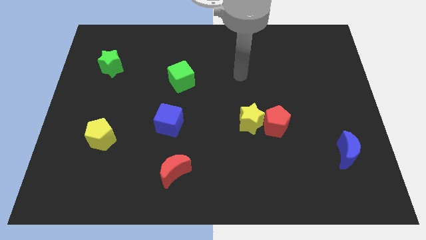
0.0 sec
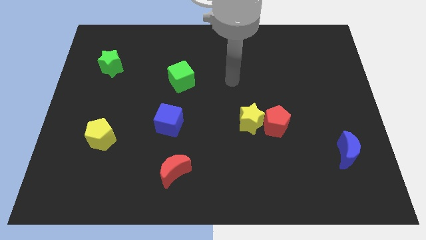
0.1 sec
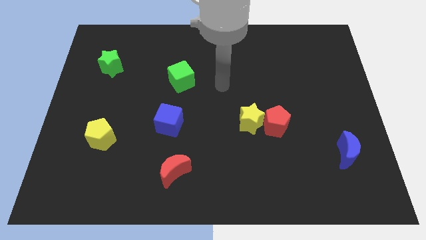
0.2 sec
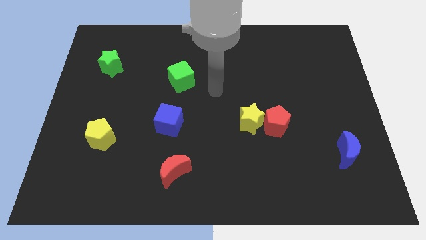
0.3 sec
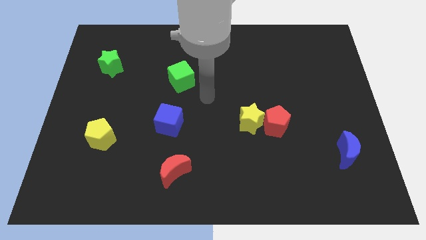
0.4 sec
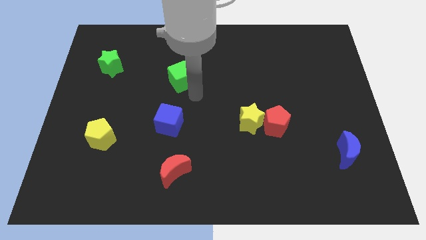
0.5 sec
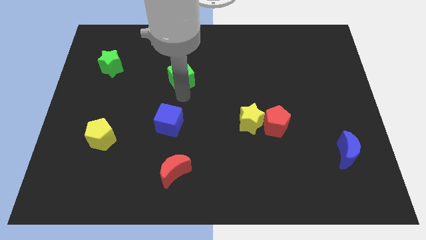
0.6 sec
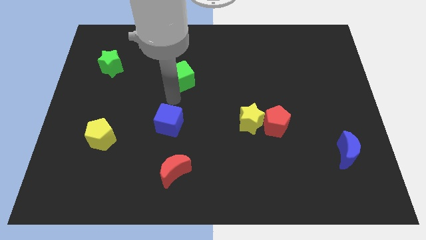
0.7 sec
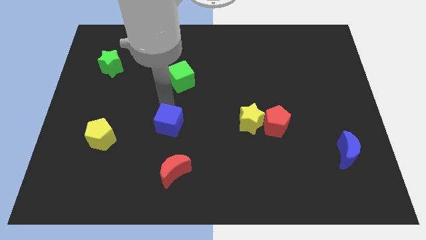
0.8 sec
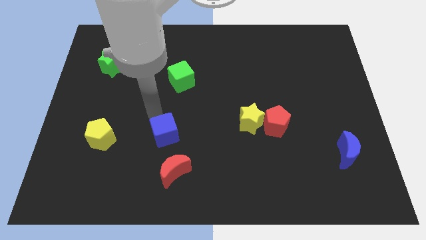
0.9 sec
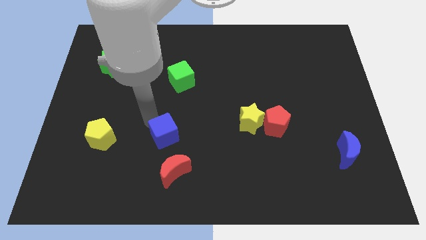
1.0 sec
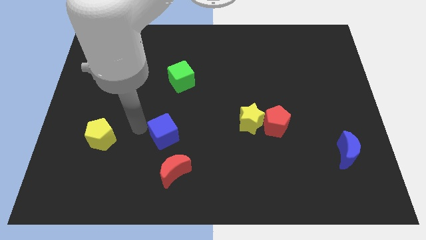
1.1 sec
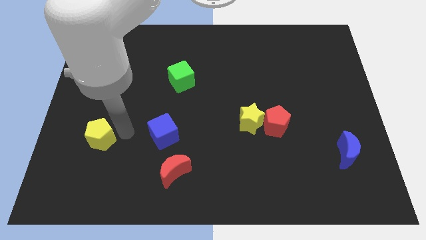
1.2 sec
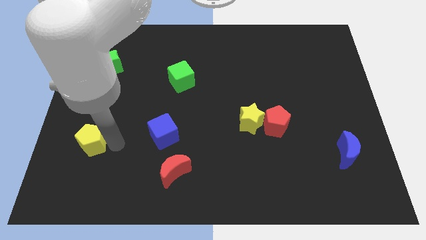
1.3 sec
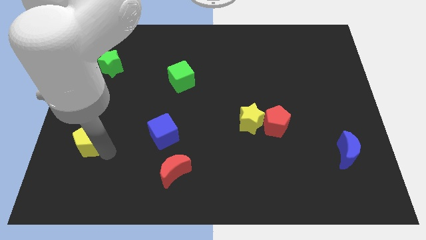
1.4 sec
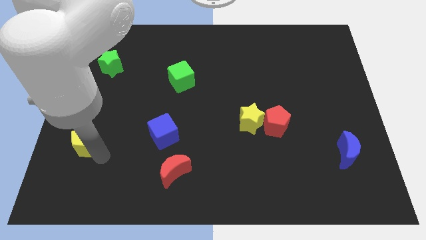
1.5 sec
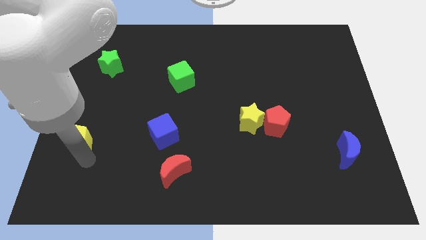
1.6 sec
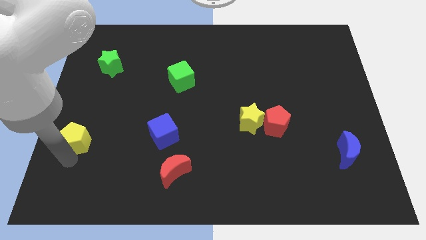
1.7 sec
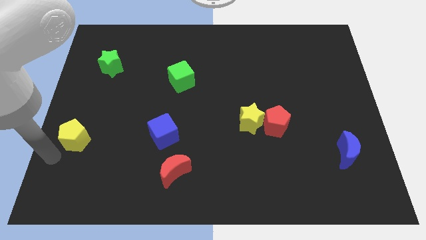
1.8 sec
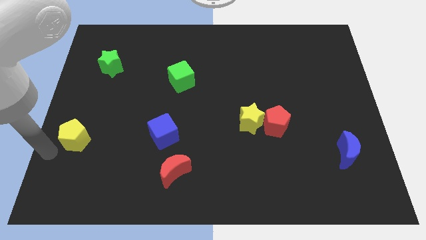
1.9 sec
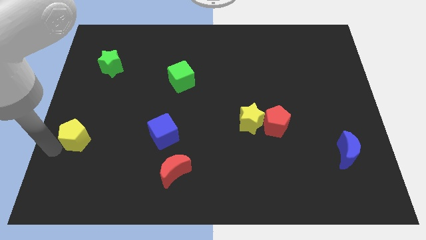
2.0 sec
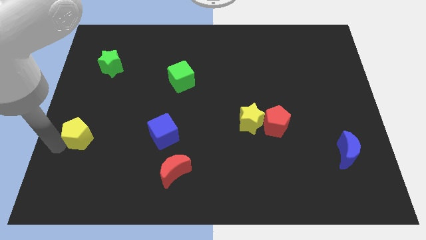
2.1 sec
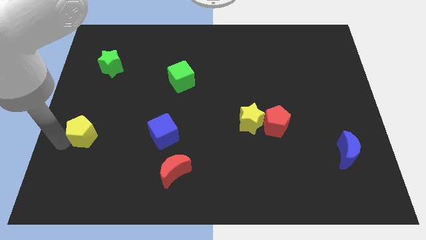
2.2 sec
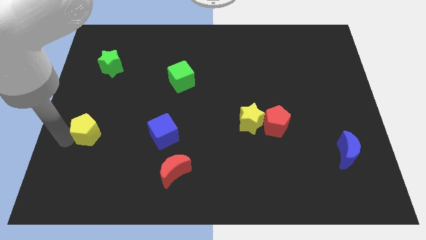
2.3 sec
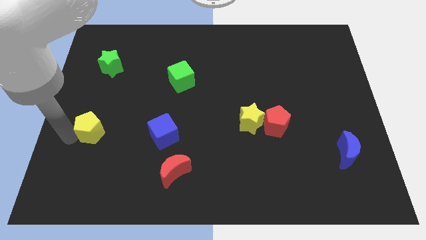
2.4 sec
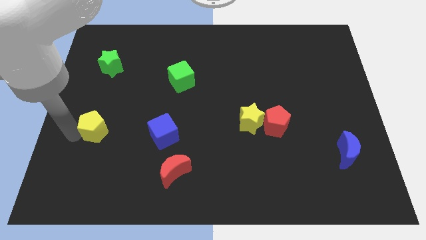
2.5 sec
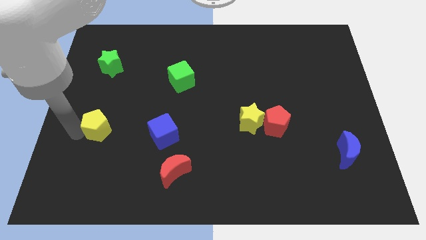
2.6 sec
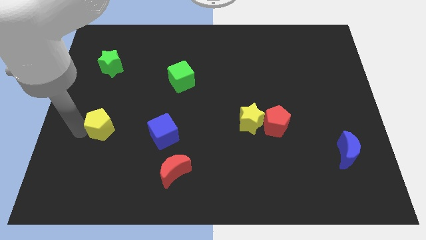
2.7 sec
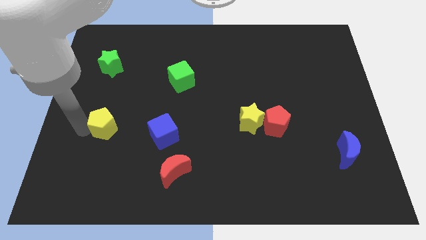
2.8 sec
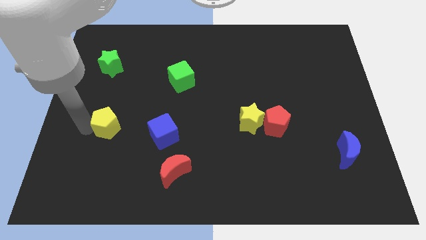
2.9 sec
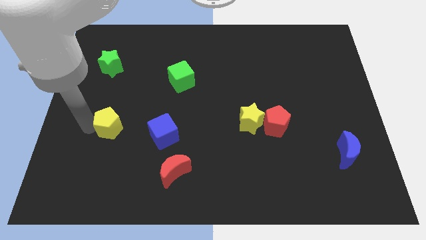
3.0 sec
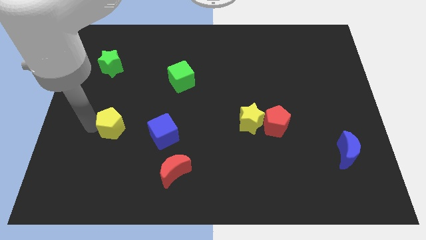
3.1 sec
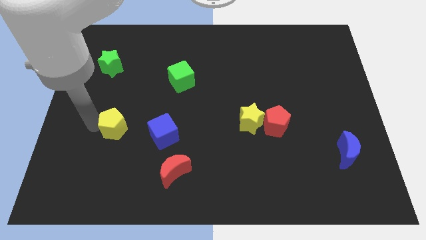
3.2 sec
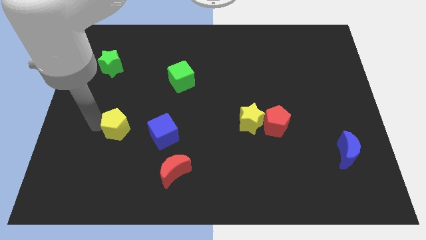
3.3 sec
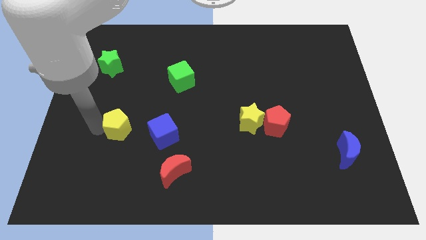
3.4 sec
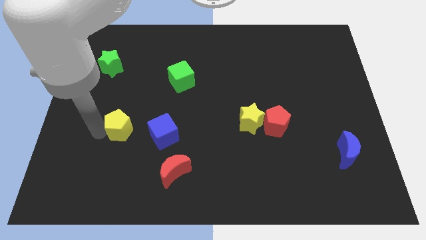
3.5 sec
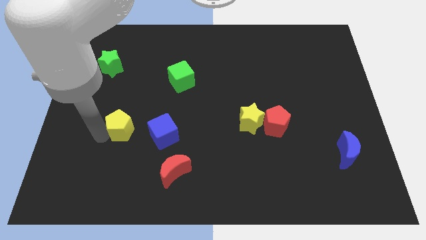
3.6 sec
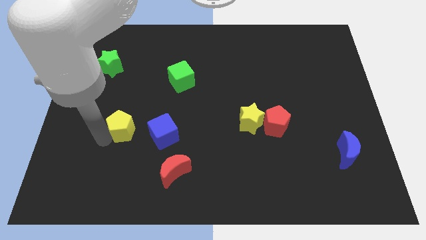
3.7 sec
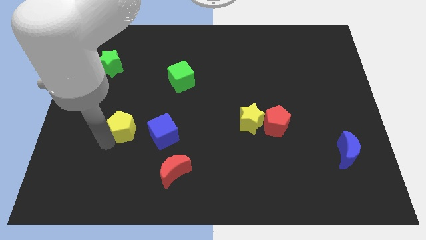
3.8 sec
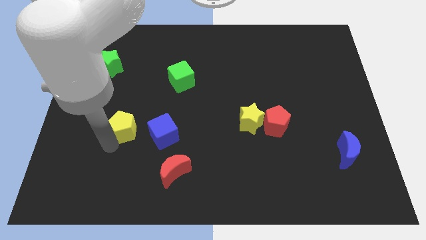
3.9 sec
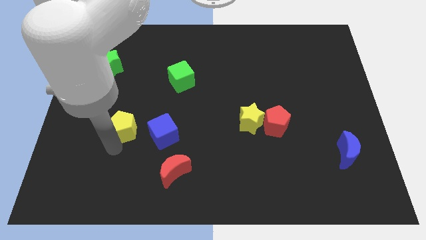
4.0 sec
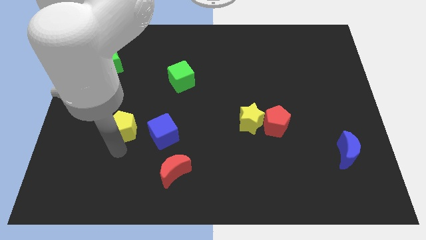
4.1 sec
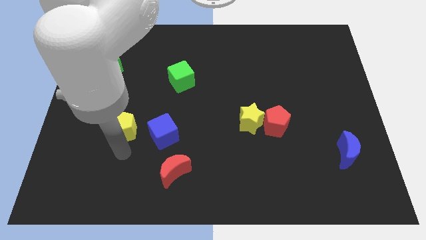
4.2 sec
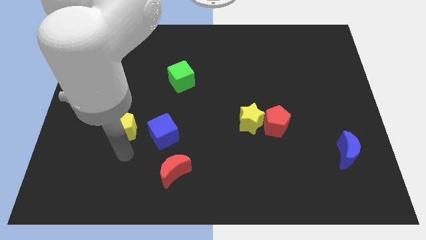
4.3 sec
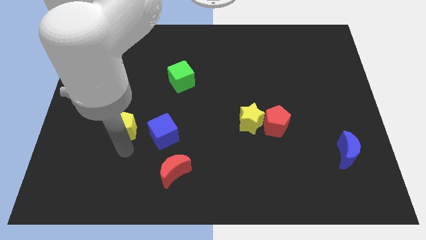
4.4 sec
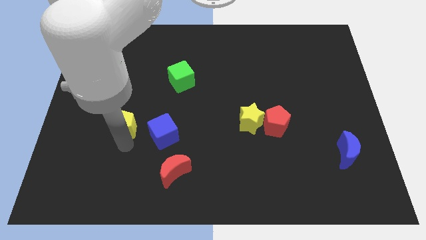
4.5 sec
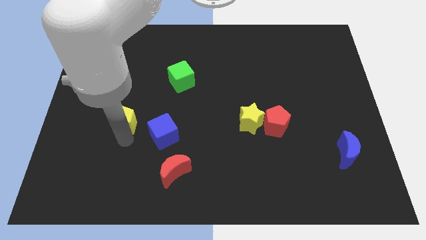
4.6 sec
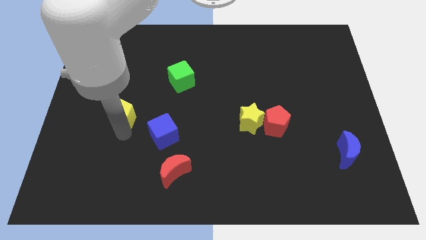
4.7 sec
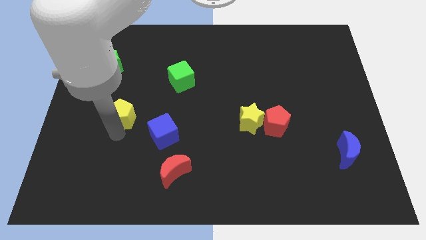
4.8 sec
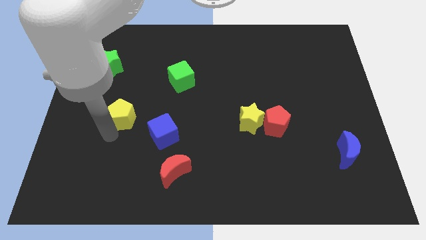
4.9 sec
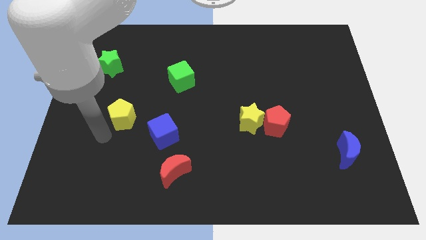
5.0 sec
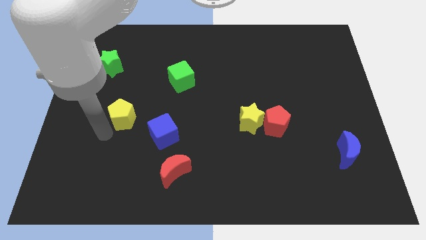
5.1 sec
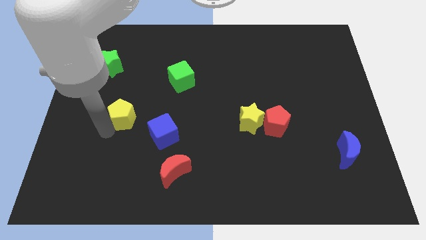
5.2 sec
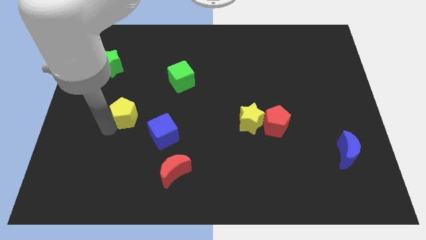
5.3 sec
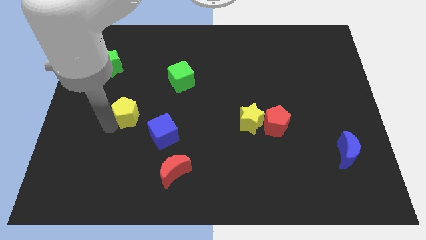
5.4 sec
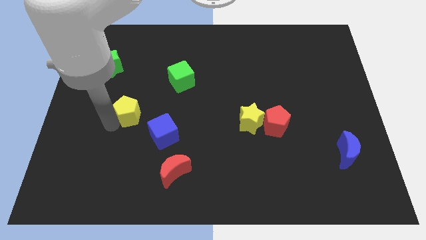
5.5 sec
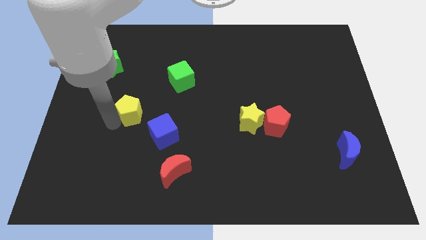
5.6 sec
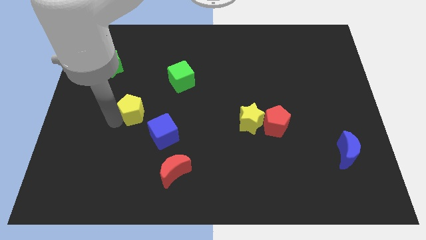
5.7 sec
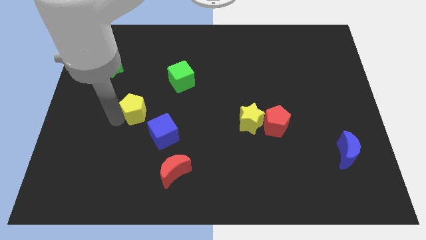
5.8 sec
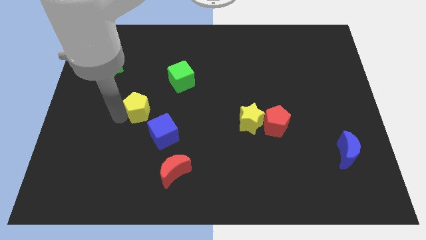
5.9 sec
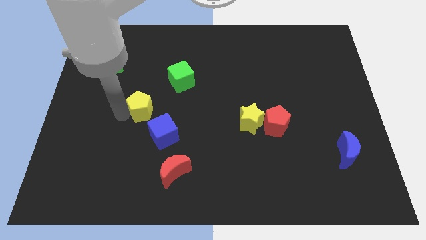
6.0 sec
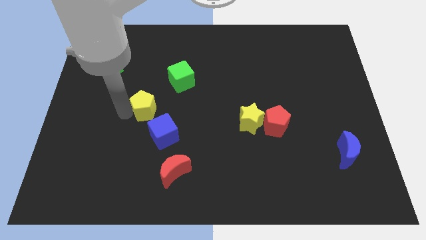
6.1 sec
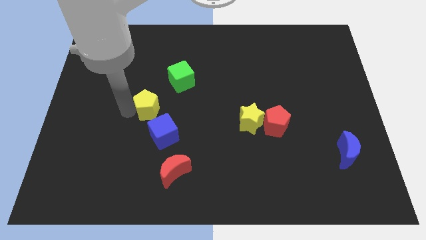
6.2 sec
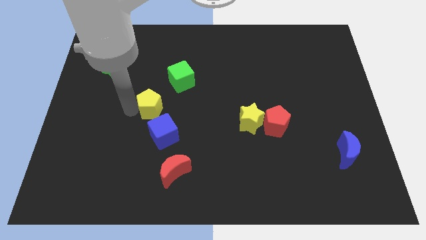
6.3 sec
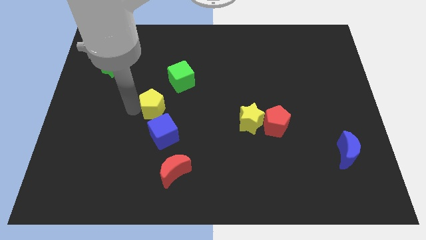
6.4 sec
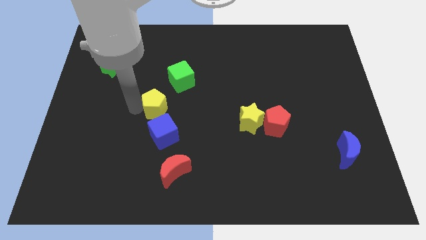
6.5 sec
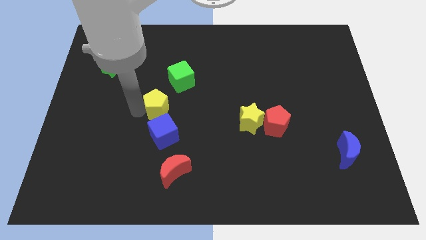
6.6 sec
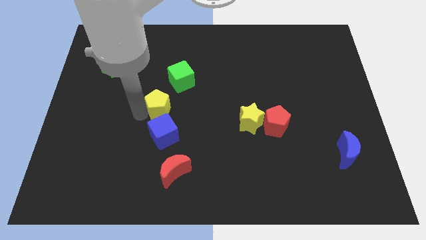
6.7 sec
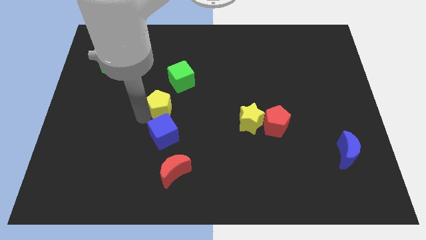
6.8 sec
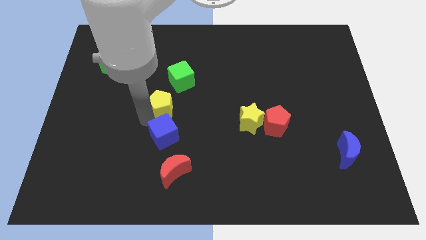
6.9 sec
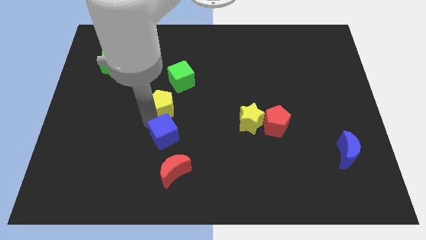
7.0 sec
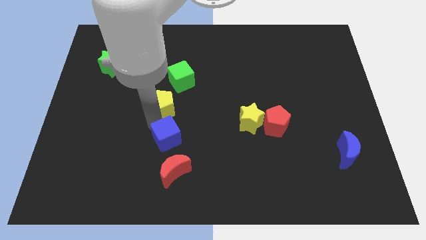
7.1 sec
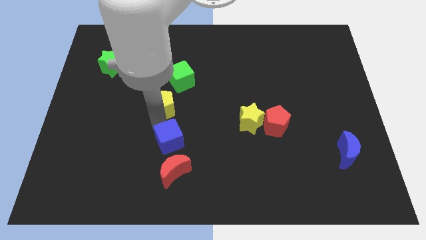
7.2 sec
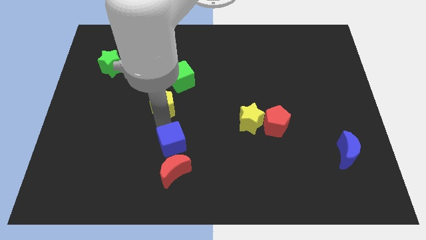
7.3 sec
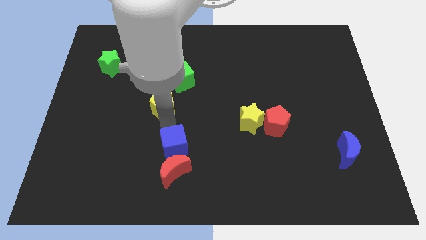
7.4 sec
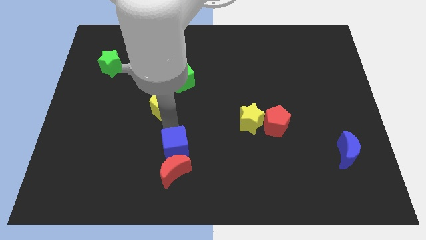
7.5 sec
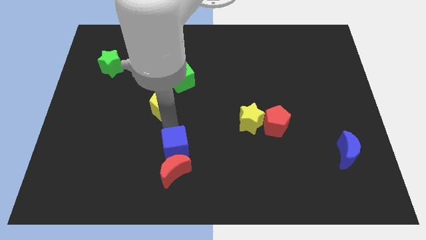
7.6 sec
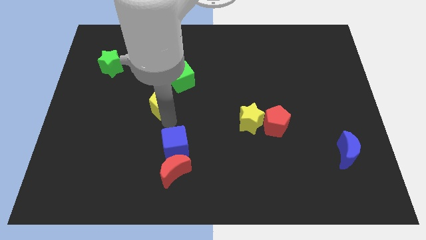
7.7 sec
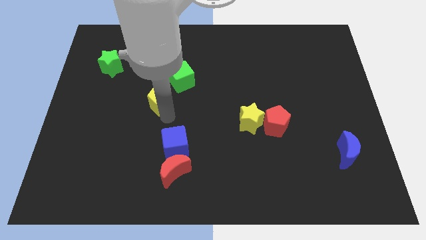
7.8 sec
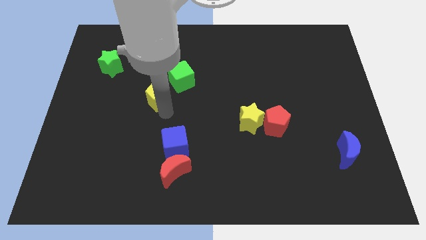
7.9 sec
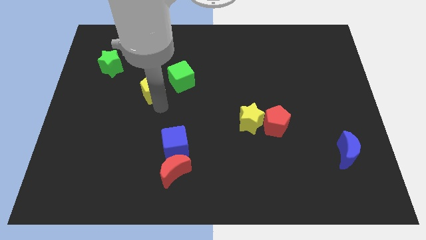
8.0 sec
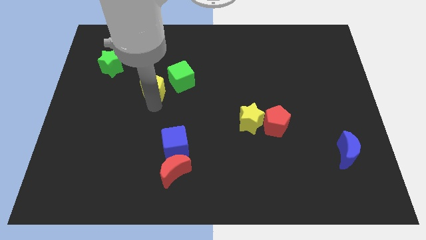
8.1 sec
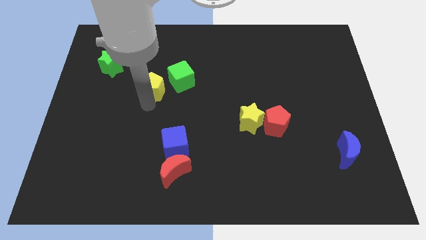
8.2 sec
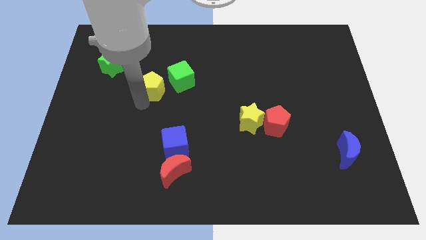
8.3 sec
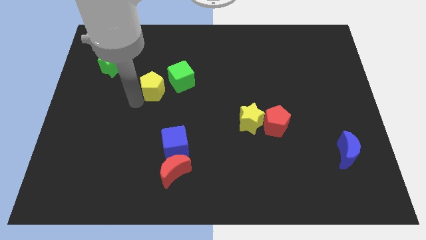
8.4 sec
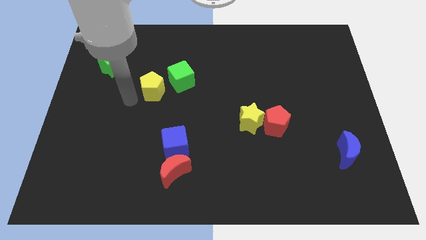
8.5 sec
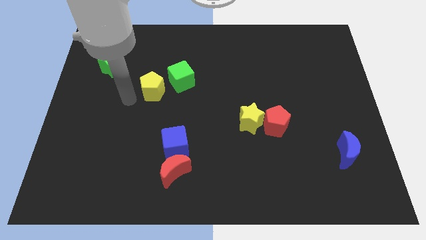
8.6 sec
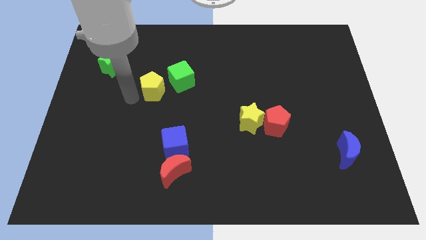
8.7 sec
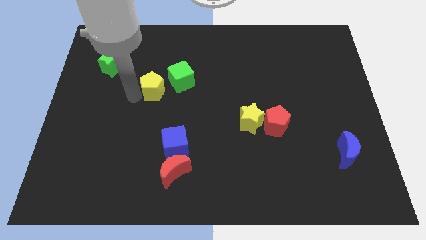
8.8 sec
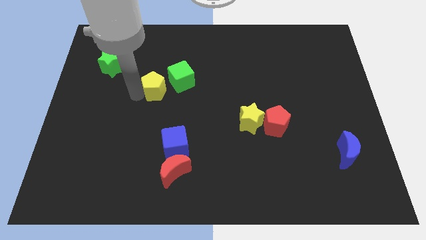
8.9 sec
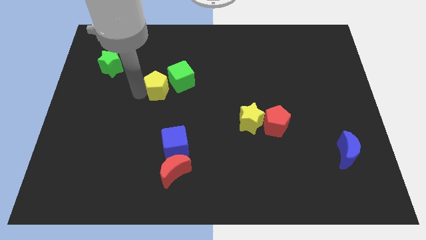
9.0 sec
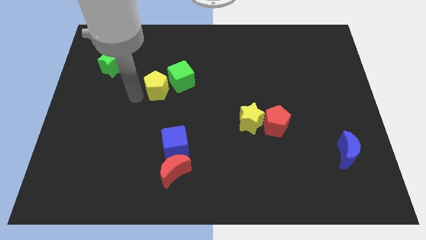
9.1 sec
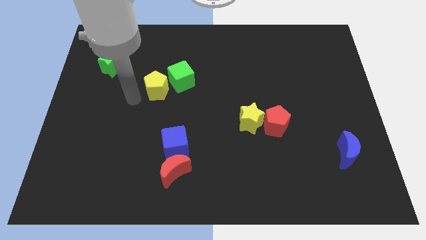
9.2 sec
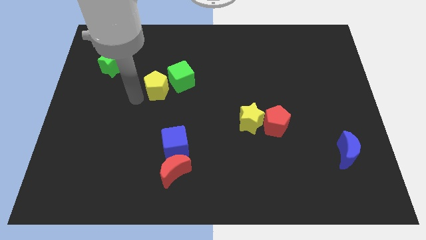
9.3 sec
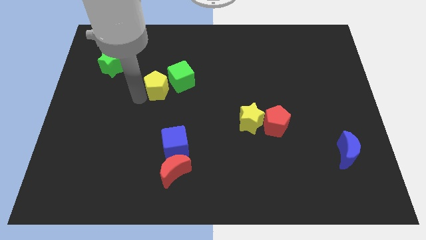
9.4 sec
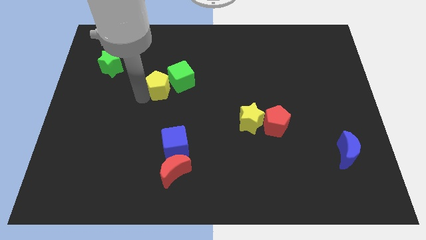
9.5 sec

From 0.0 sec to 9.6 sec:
move the yellow pentagon close to the green cube
